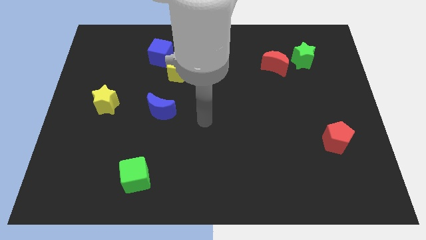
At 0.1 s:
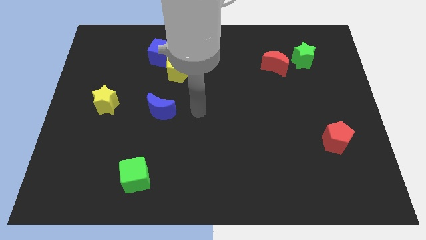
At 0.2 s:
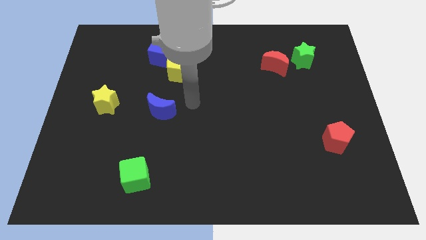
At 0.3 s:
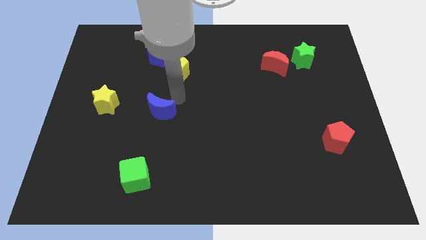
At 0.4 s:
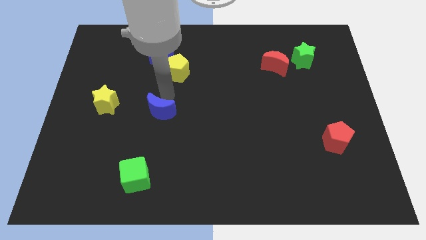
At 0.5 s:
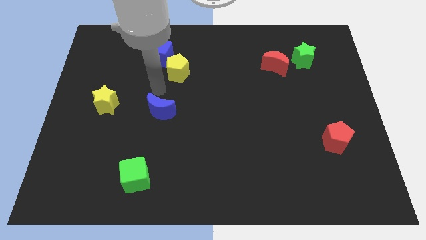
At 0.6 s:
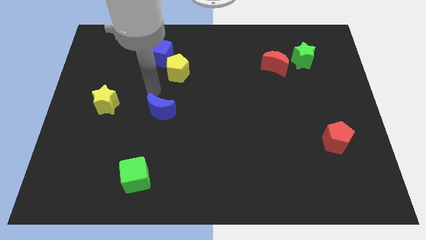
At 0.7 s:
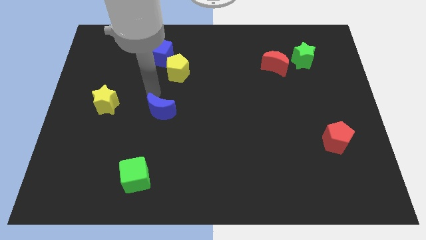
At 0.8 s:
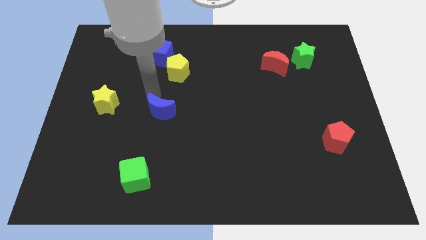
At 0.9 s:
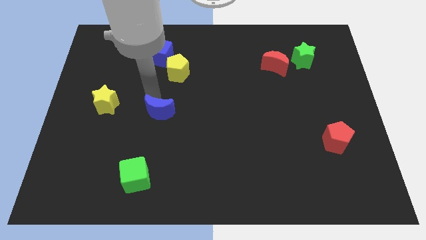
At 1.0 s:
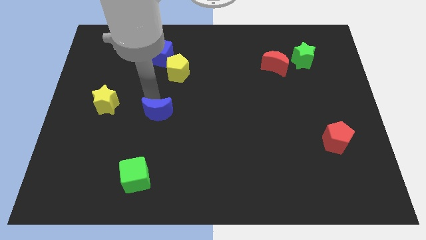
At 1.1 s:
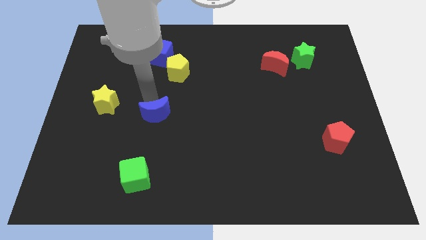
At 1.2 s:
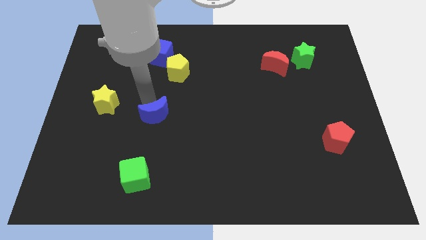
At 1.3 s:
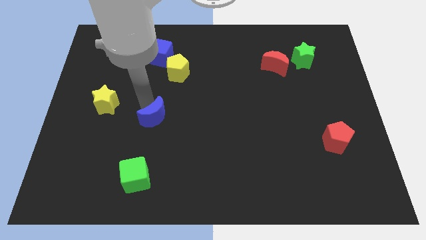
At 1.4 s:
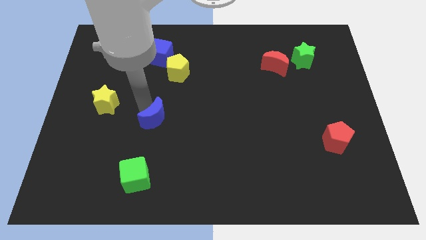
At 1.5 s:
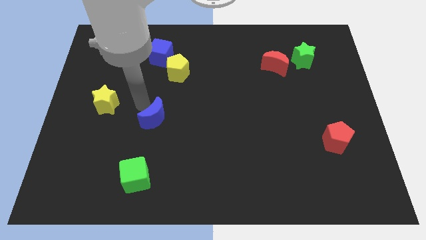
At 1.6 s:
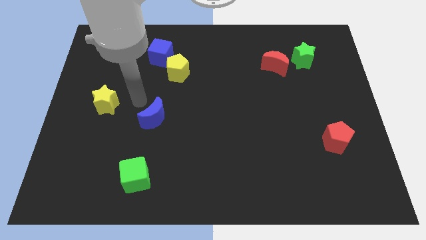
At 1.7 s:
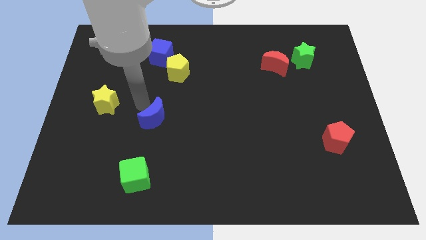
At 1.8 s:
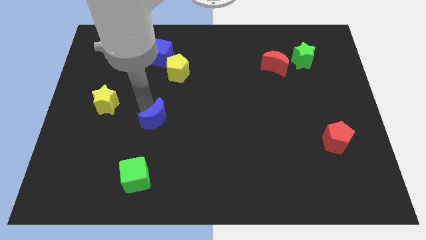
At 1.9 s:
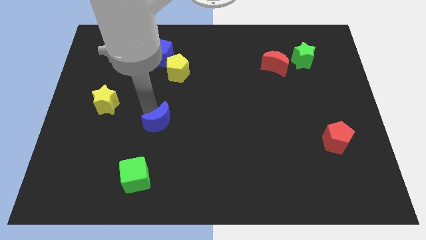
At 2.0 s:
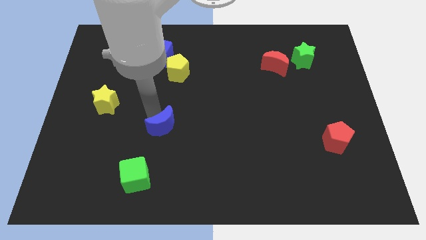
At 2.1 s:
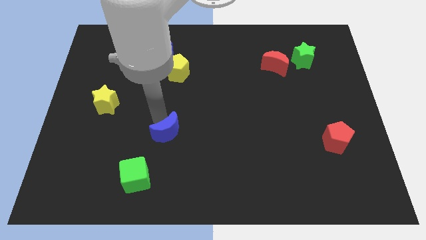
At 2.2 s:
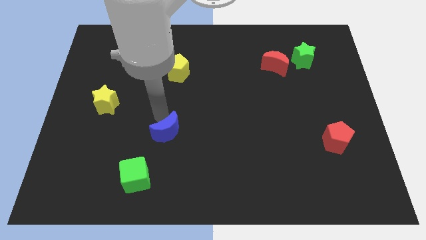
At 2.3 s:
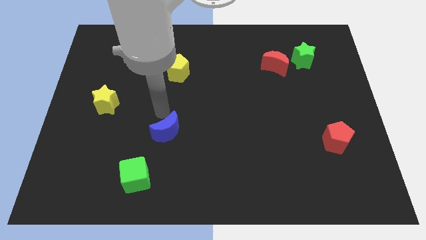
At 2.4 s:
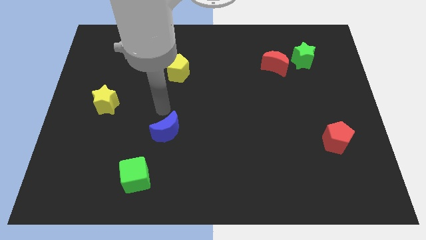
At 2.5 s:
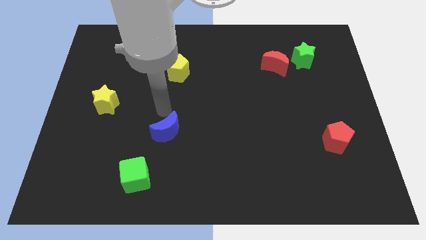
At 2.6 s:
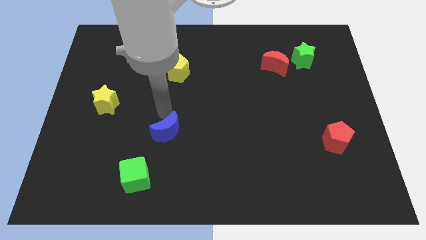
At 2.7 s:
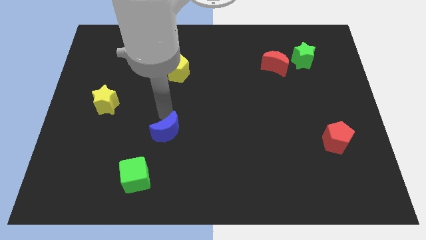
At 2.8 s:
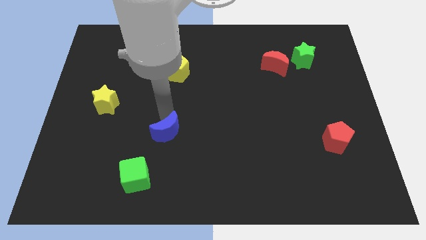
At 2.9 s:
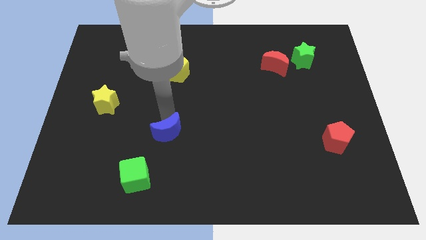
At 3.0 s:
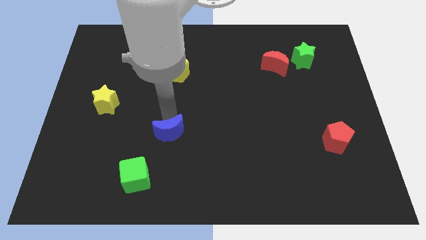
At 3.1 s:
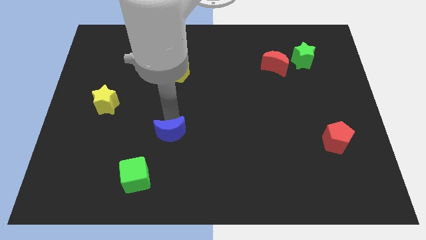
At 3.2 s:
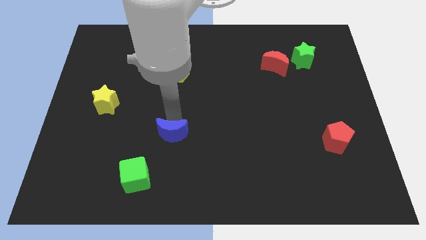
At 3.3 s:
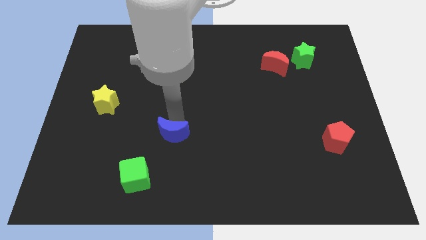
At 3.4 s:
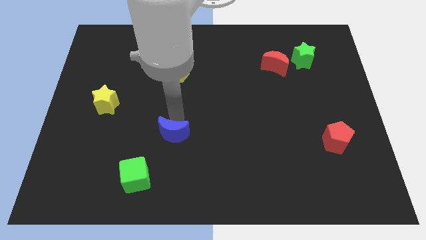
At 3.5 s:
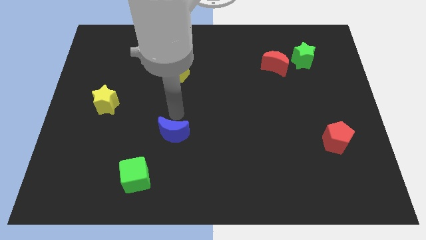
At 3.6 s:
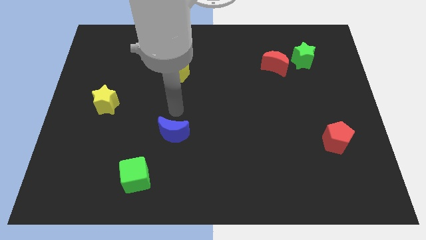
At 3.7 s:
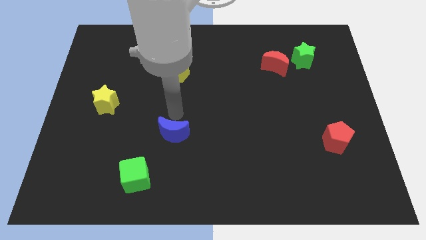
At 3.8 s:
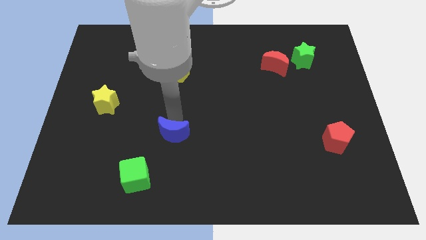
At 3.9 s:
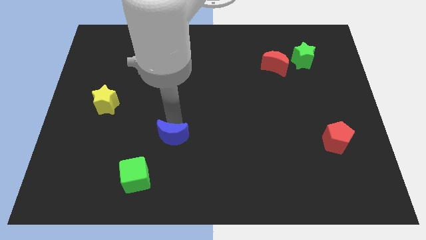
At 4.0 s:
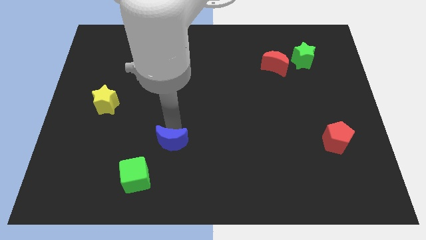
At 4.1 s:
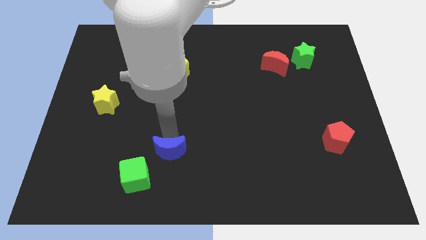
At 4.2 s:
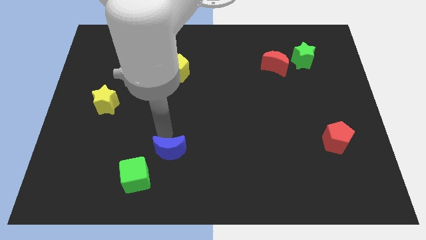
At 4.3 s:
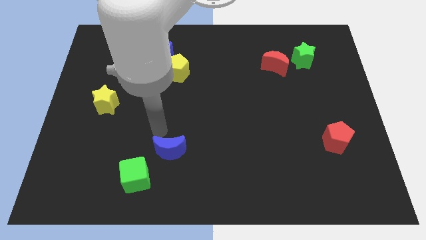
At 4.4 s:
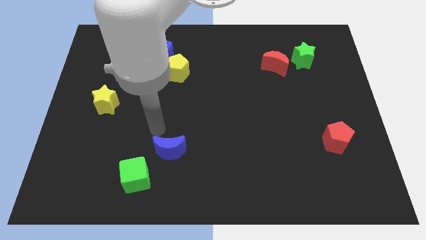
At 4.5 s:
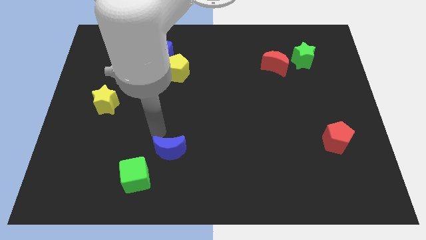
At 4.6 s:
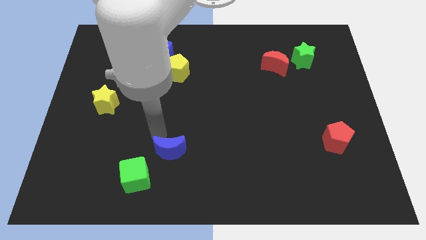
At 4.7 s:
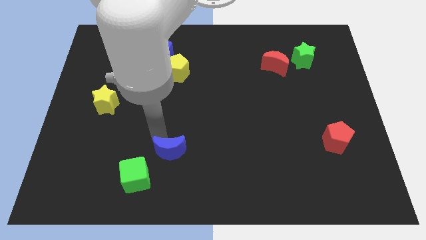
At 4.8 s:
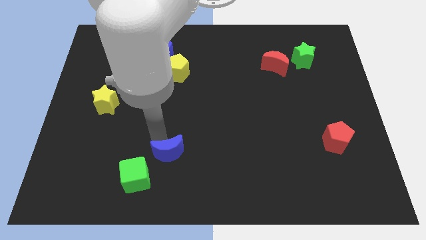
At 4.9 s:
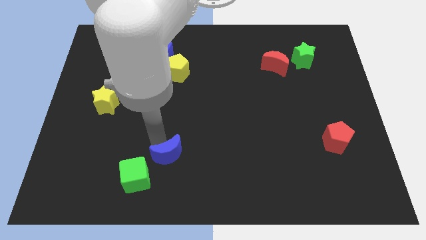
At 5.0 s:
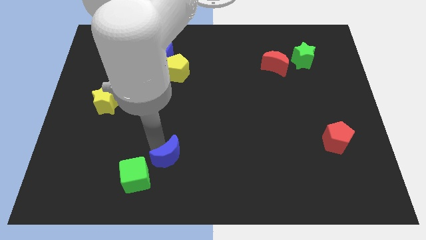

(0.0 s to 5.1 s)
push the blue moon to the right of the green cube

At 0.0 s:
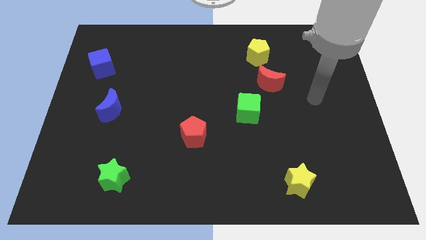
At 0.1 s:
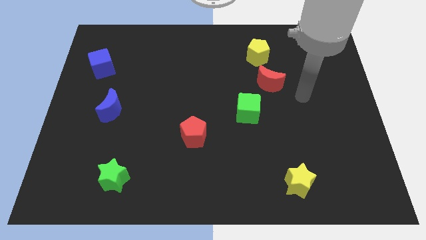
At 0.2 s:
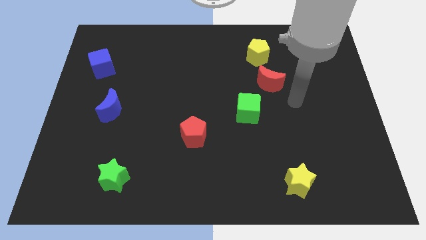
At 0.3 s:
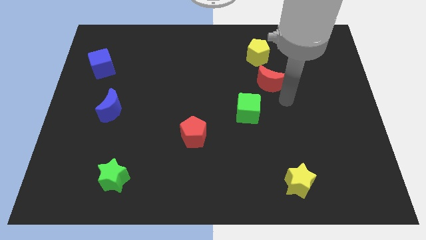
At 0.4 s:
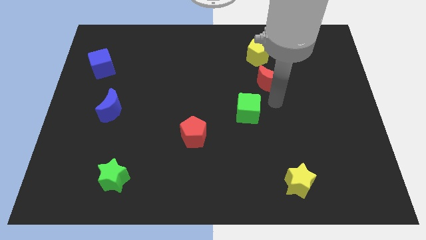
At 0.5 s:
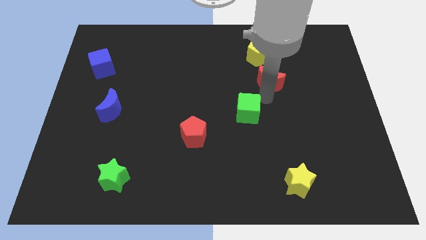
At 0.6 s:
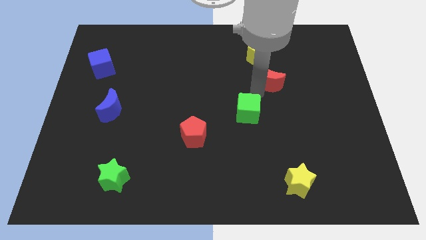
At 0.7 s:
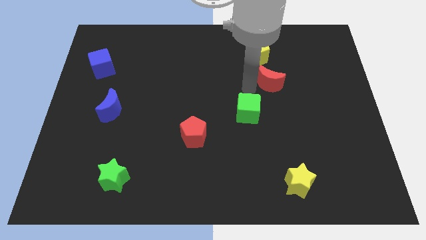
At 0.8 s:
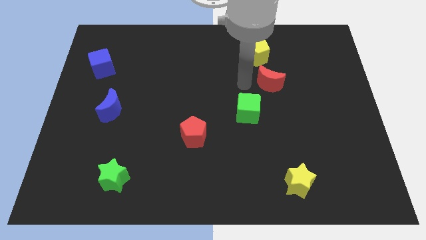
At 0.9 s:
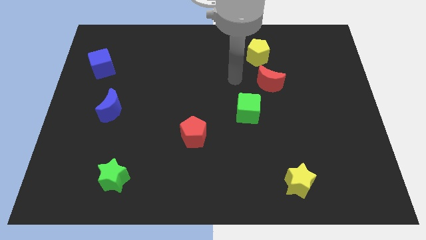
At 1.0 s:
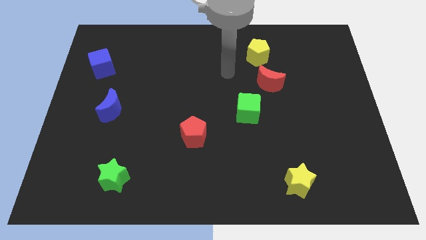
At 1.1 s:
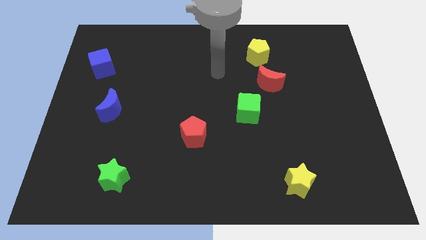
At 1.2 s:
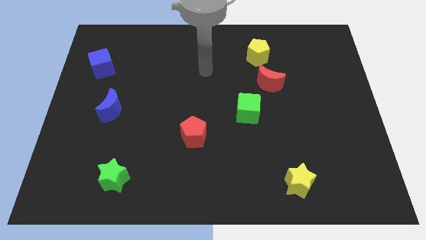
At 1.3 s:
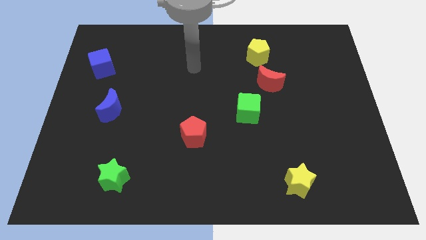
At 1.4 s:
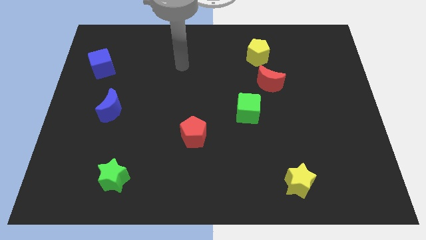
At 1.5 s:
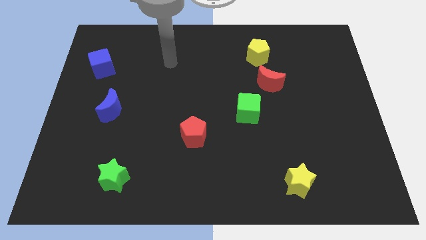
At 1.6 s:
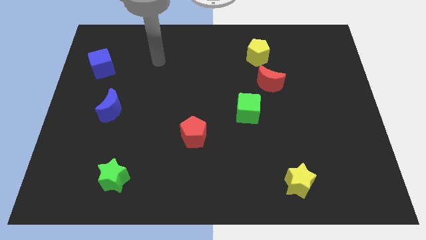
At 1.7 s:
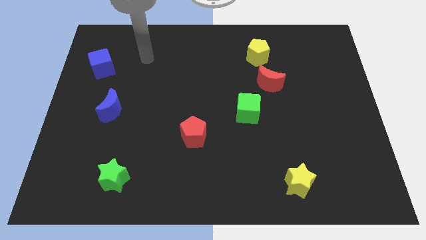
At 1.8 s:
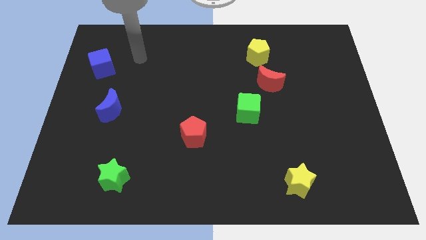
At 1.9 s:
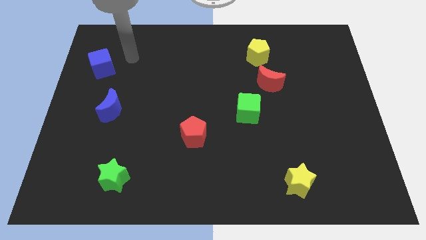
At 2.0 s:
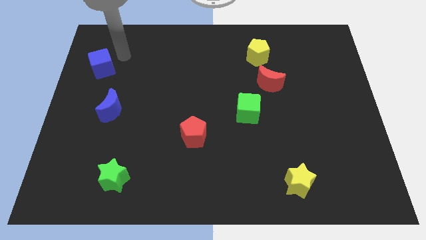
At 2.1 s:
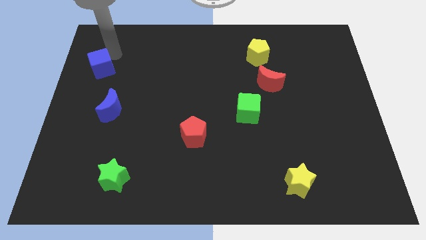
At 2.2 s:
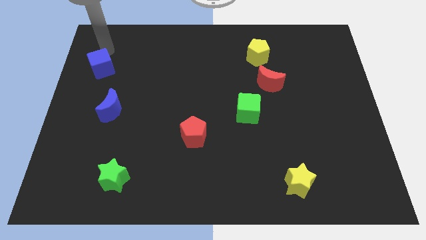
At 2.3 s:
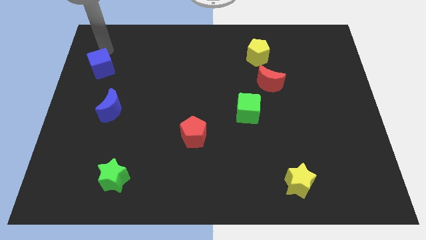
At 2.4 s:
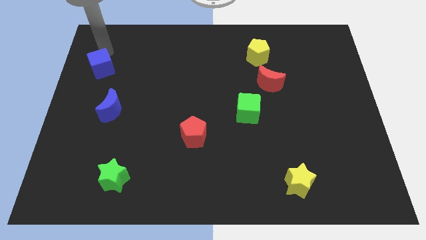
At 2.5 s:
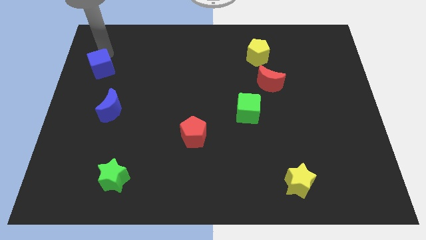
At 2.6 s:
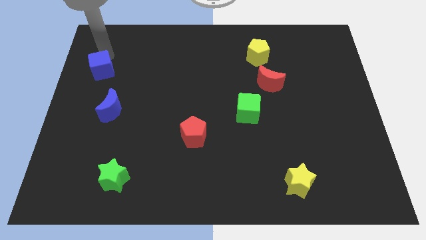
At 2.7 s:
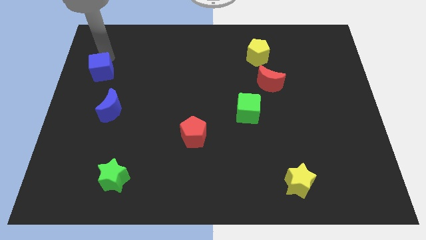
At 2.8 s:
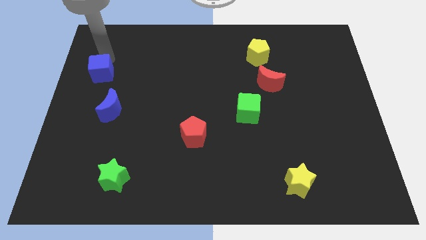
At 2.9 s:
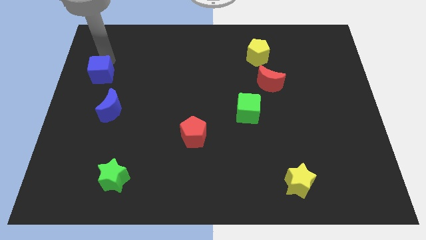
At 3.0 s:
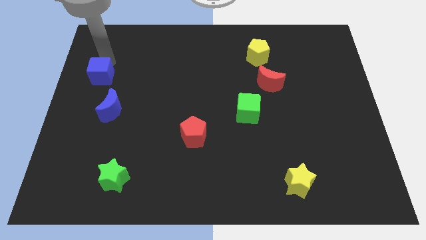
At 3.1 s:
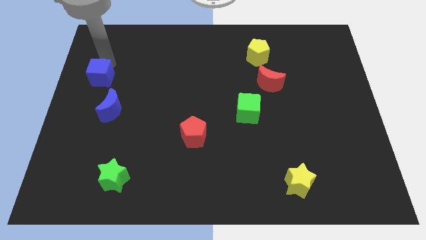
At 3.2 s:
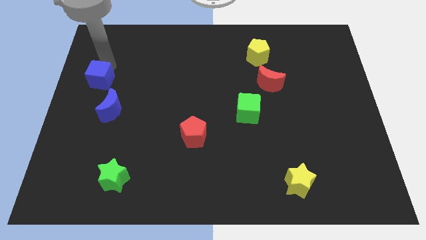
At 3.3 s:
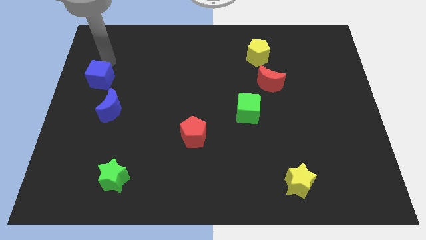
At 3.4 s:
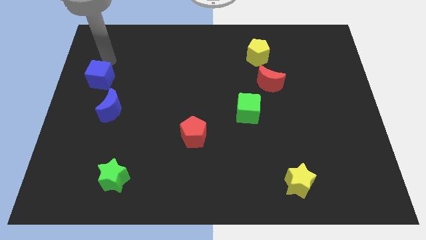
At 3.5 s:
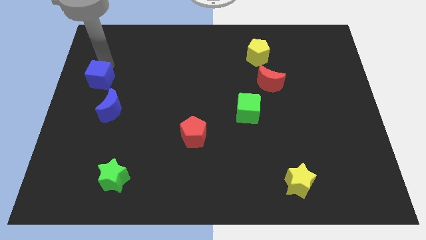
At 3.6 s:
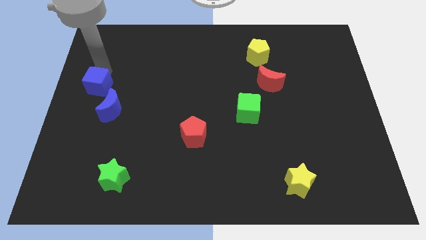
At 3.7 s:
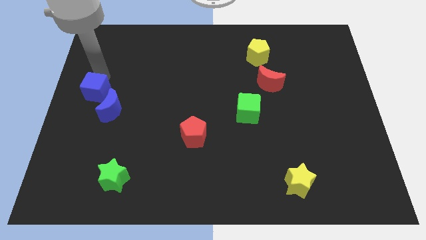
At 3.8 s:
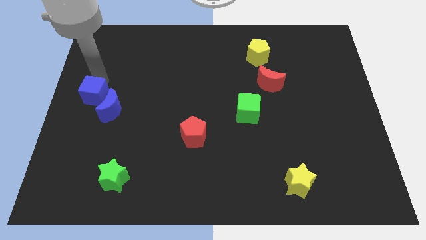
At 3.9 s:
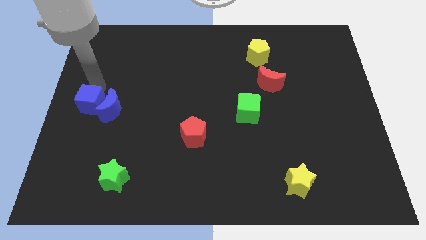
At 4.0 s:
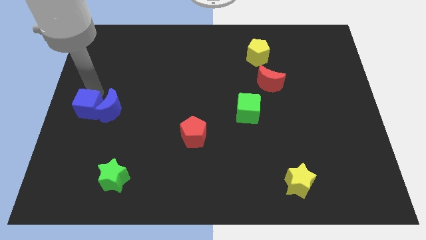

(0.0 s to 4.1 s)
put the blue cube to the bottom left of the blue moon
